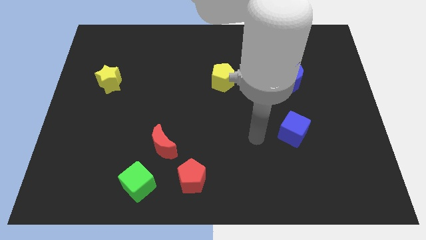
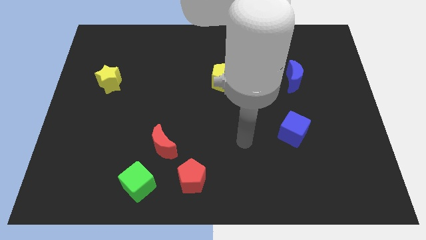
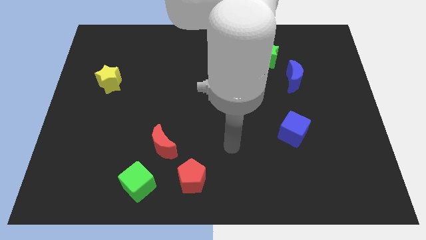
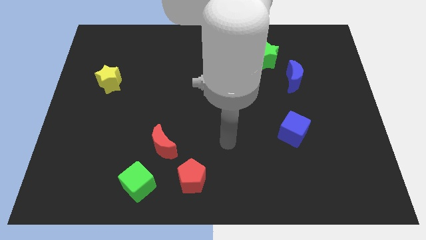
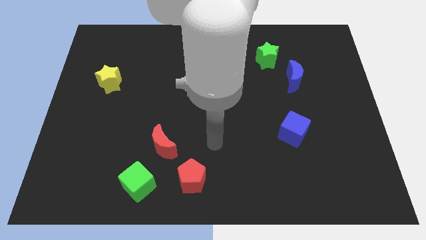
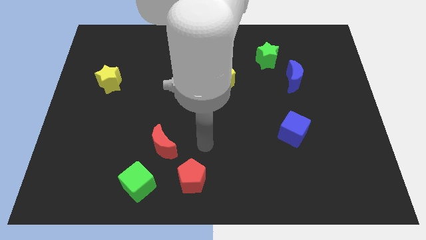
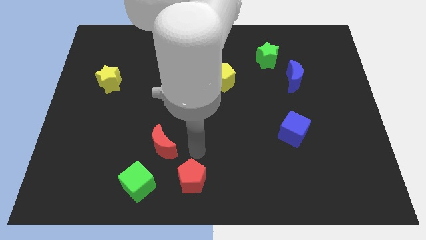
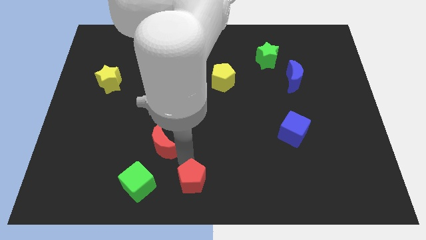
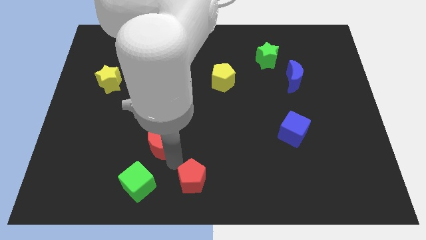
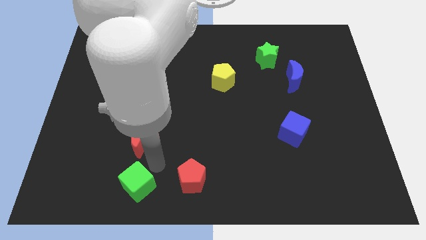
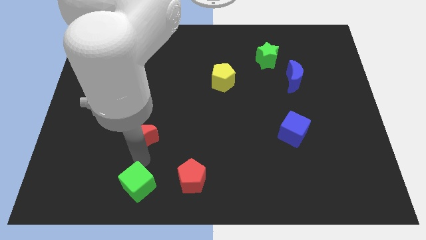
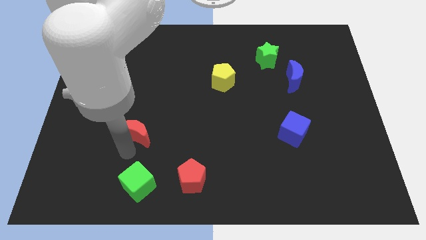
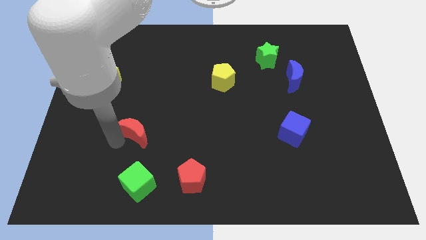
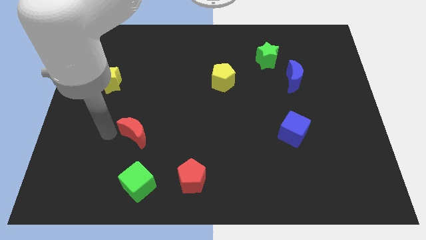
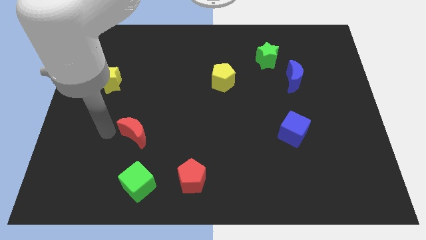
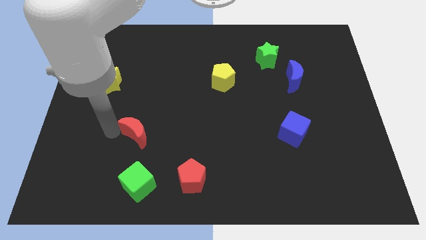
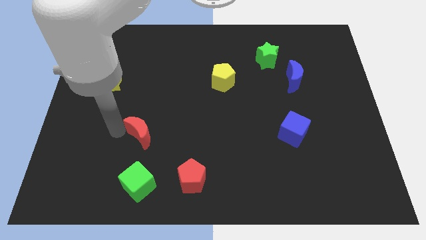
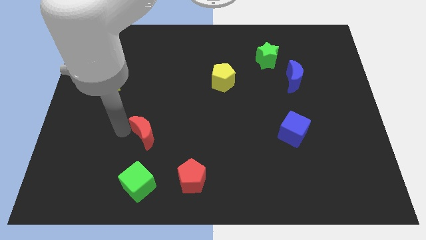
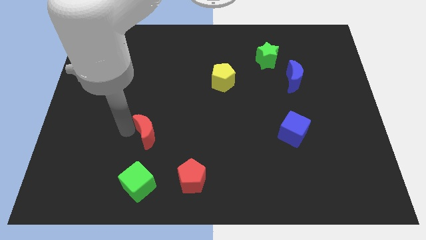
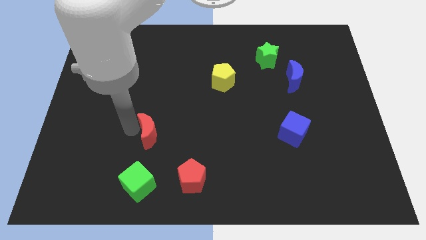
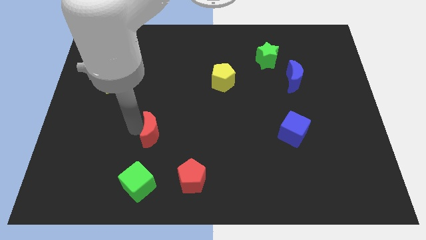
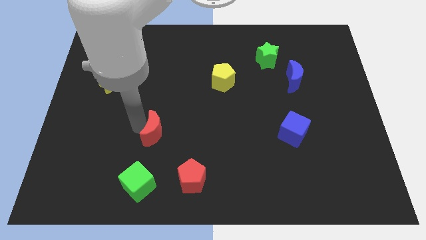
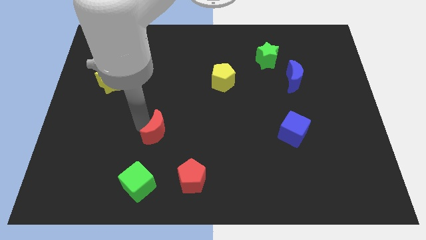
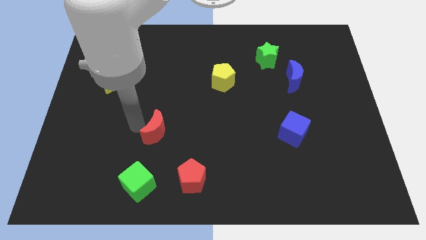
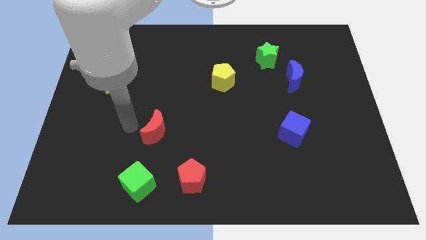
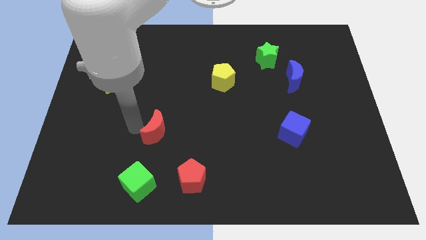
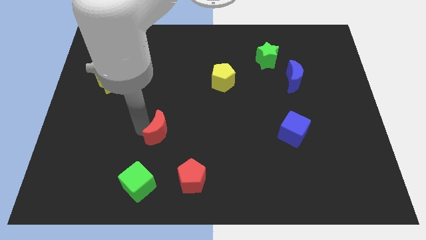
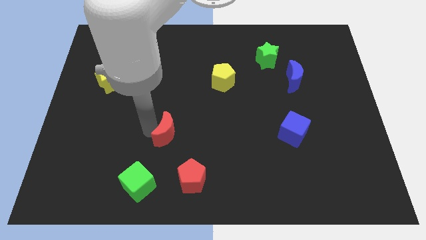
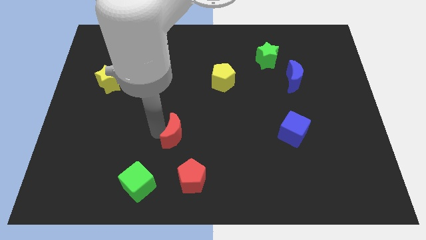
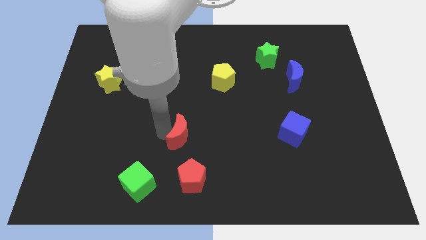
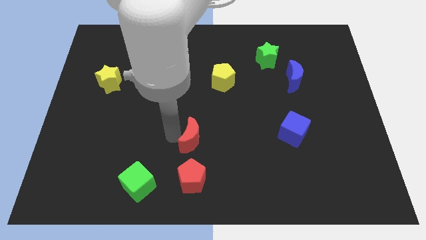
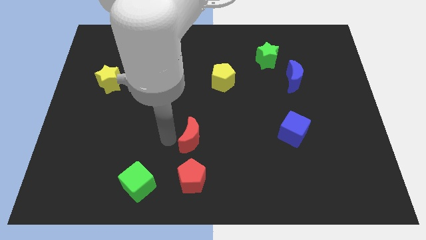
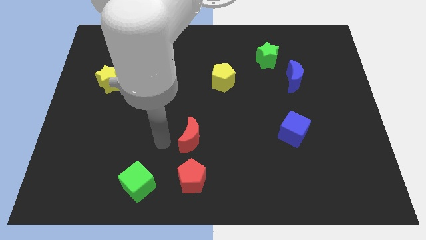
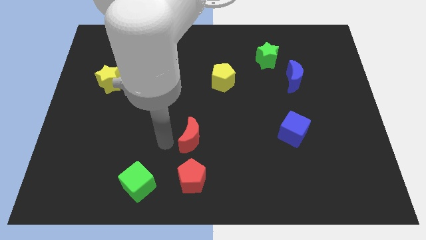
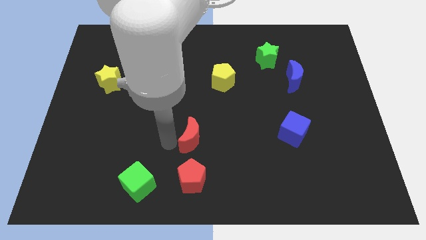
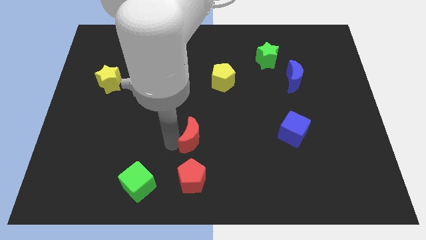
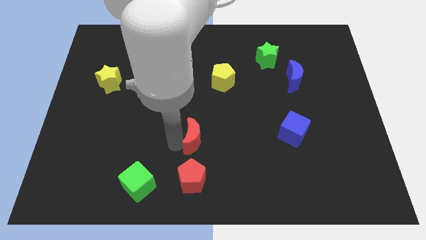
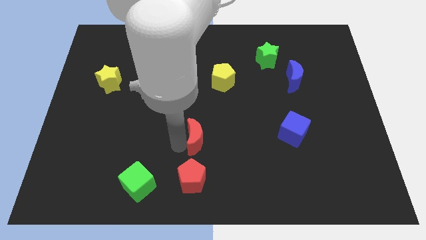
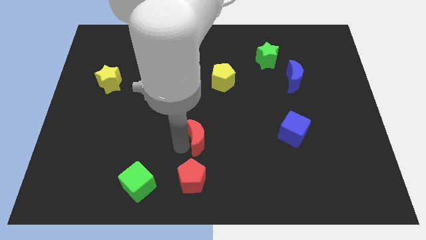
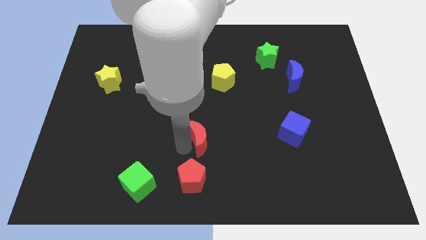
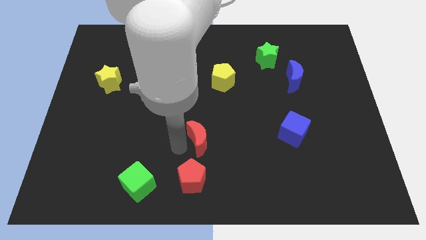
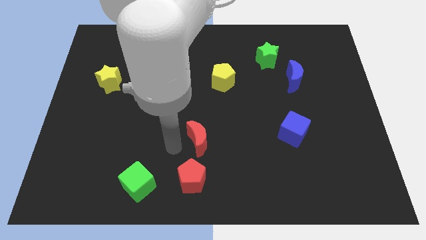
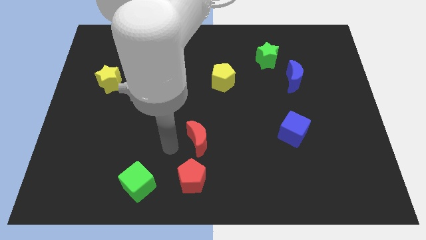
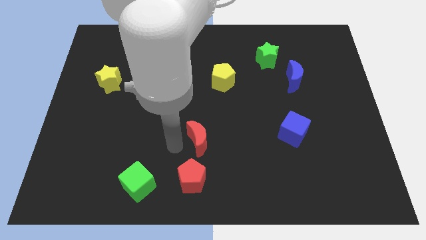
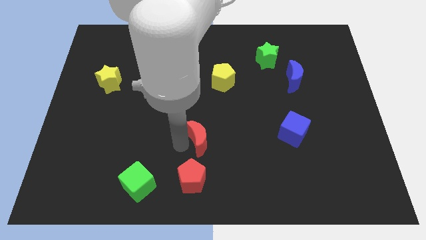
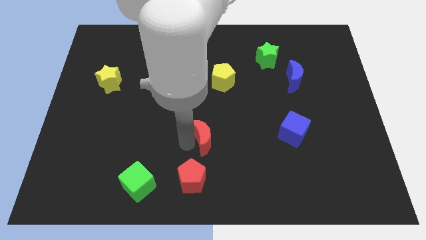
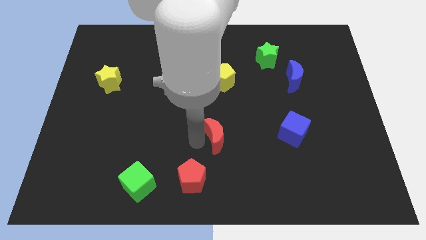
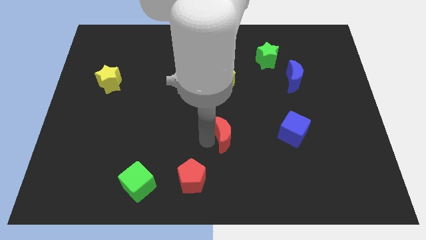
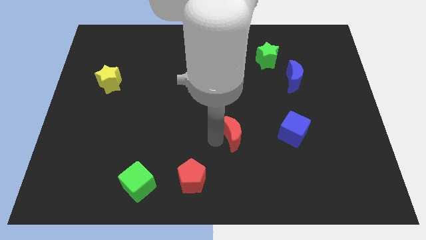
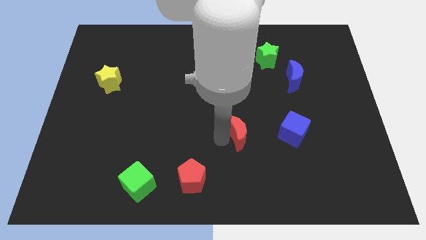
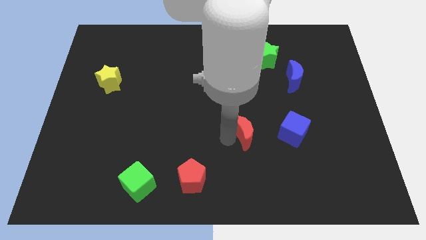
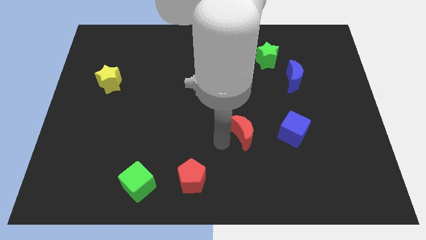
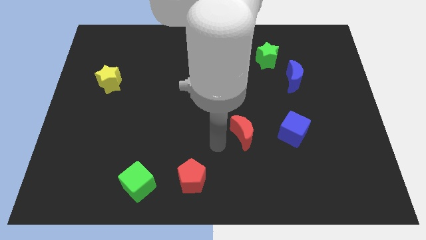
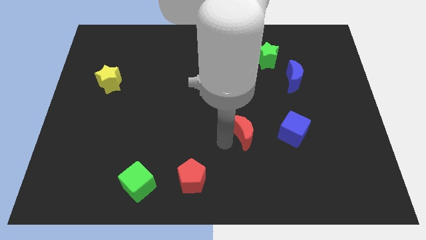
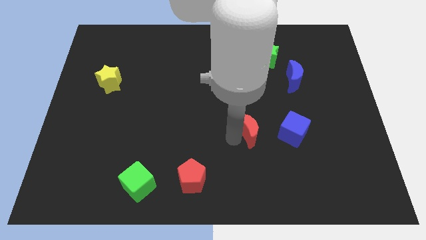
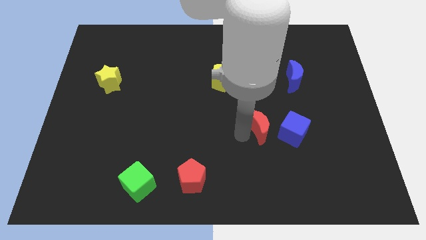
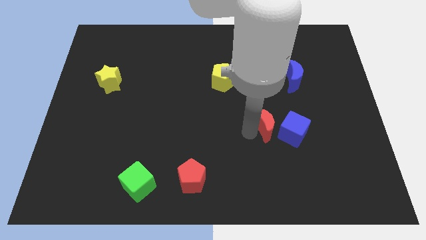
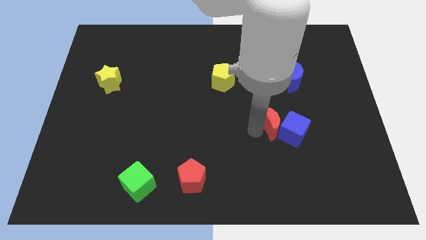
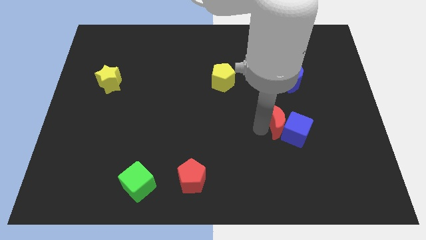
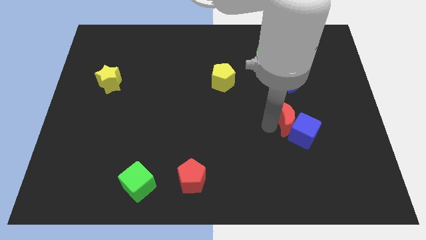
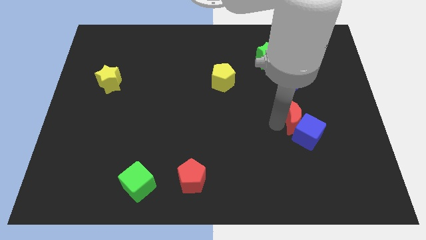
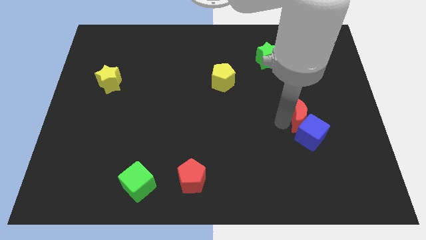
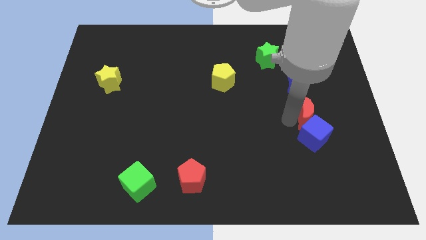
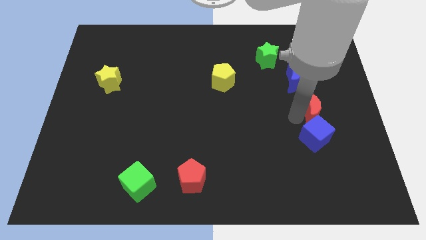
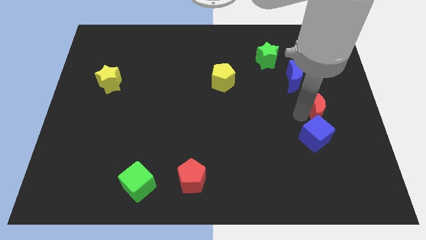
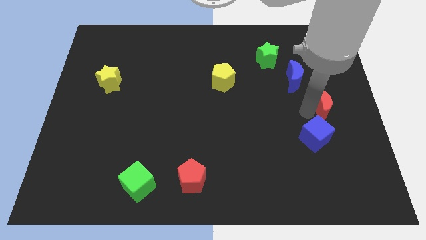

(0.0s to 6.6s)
push the red moon to the center right

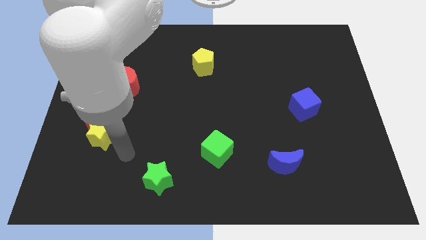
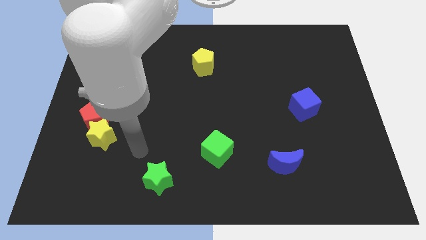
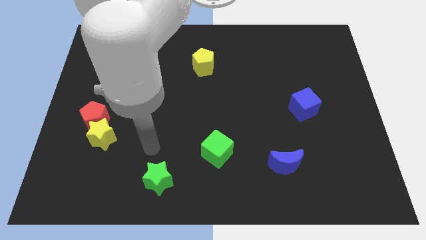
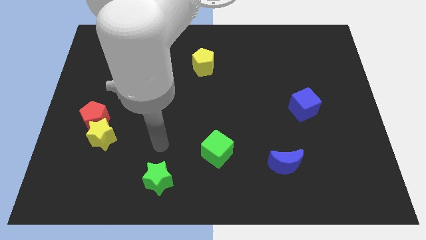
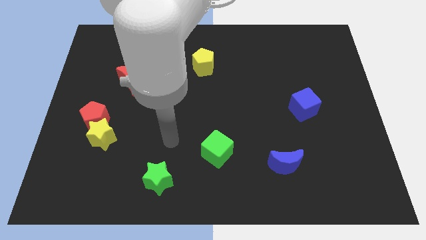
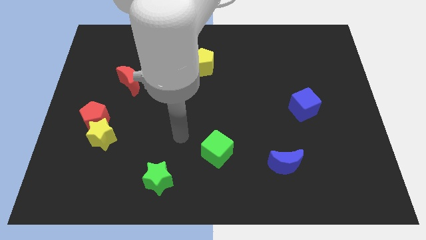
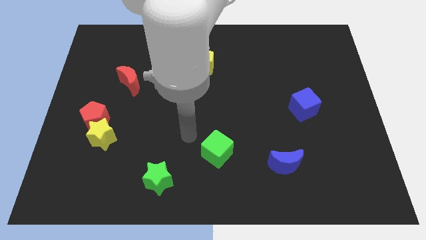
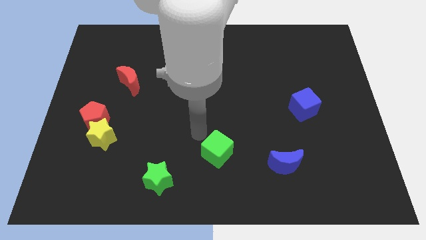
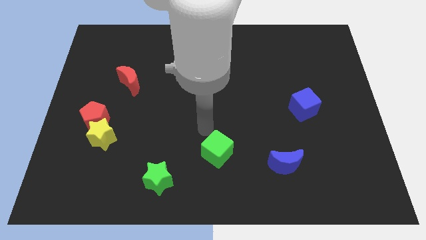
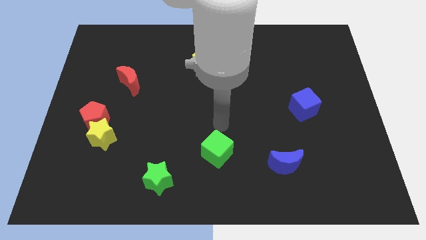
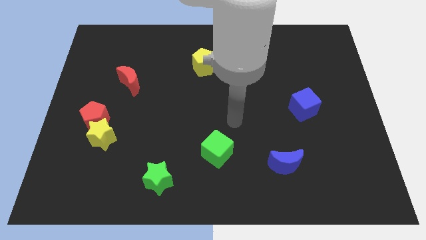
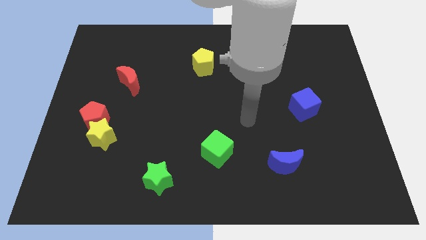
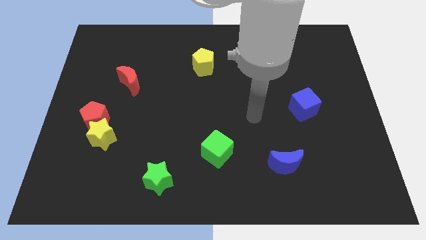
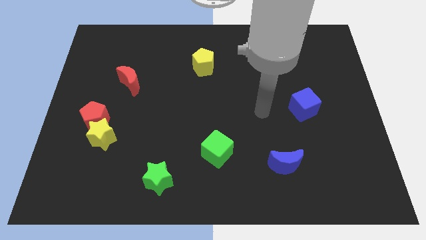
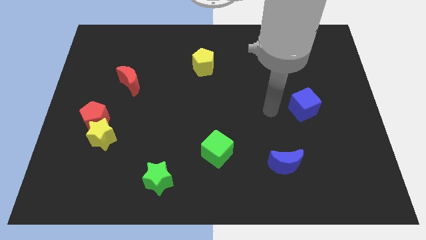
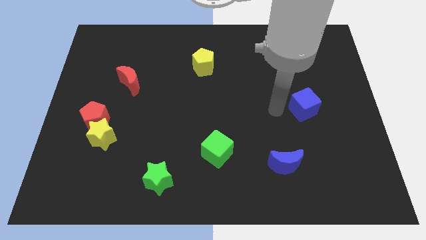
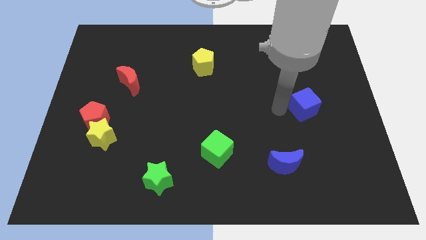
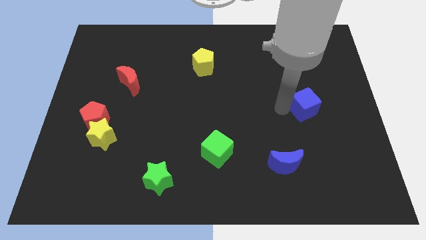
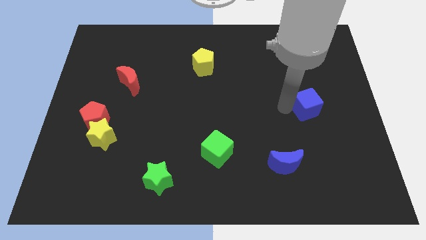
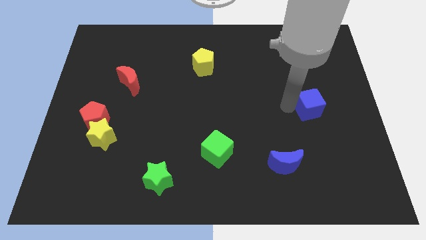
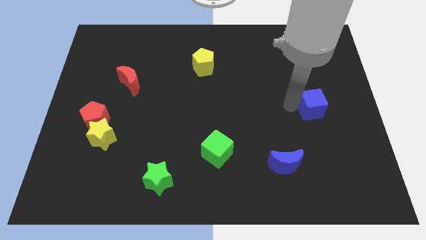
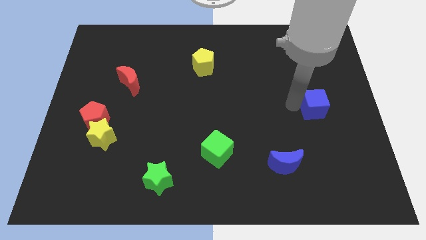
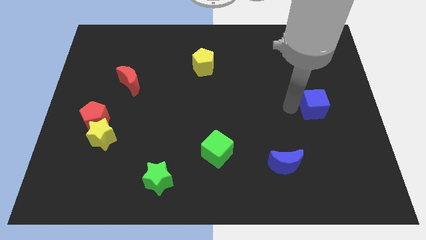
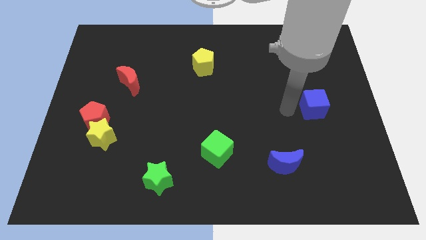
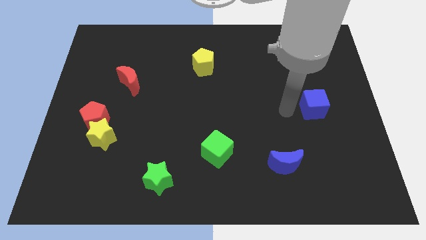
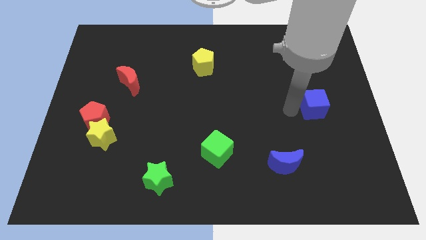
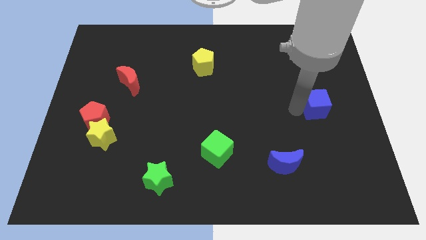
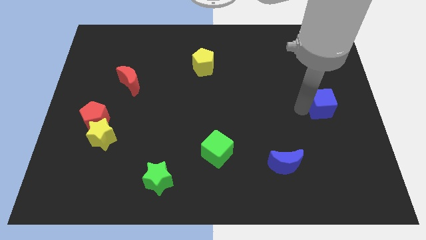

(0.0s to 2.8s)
move the blue cube to the right side
